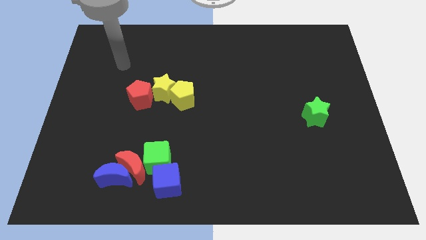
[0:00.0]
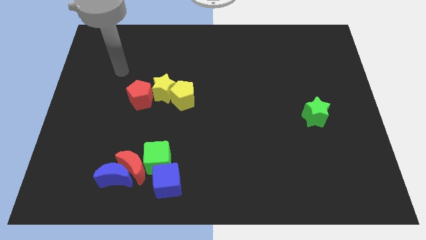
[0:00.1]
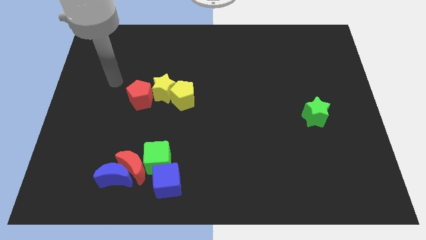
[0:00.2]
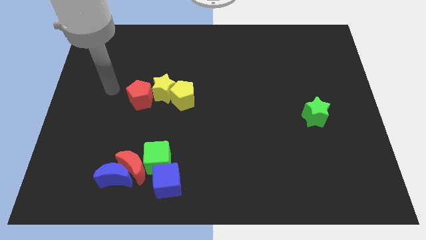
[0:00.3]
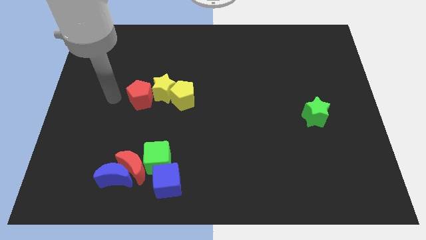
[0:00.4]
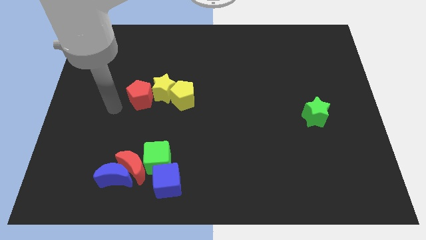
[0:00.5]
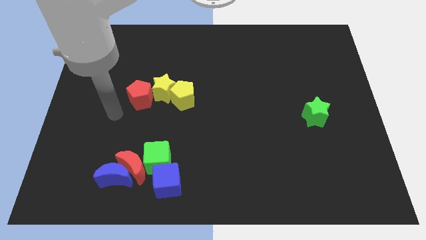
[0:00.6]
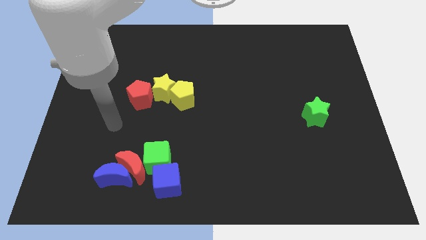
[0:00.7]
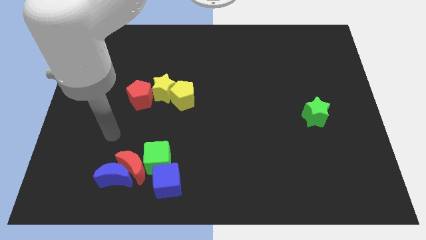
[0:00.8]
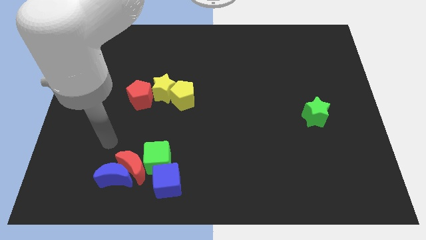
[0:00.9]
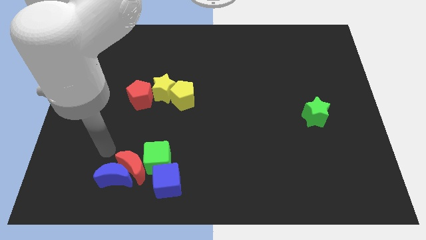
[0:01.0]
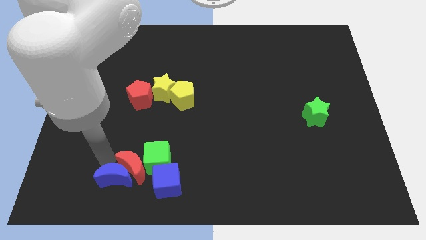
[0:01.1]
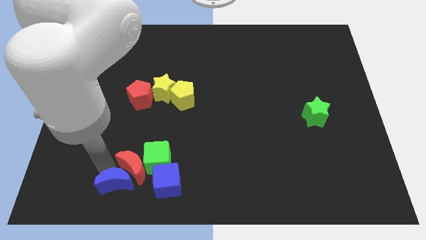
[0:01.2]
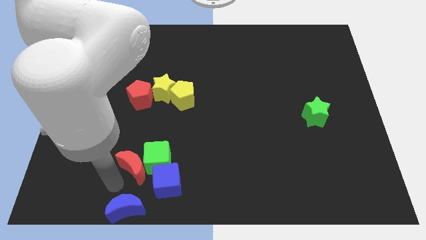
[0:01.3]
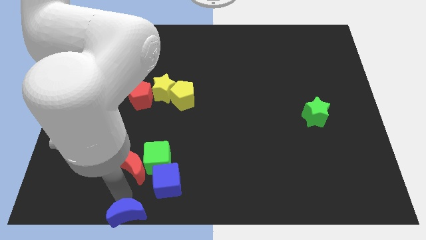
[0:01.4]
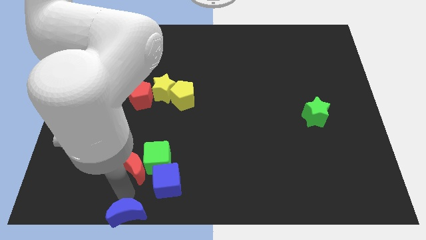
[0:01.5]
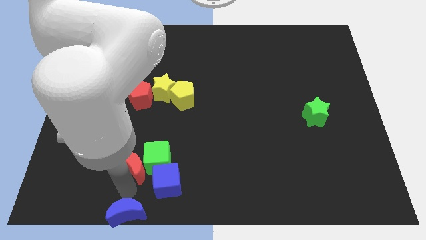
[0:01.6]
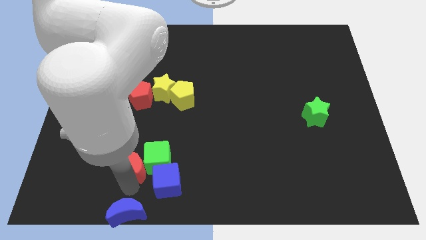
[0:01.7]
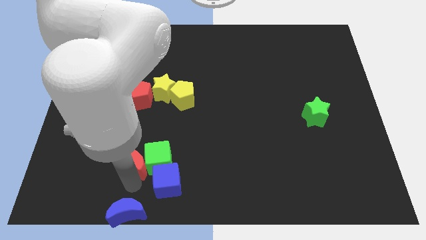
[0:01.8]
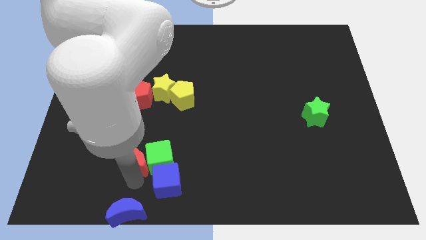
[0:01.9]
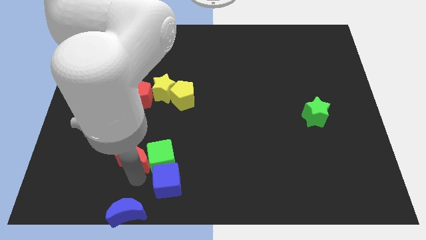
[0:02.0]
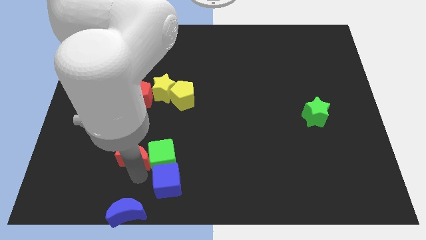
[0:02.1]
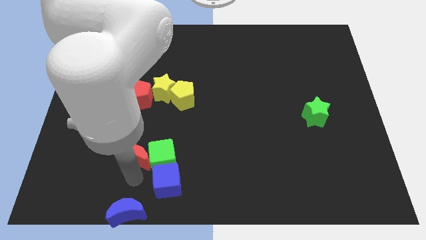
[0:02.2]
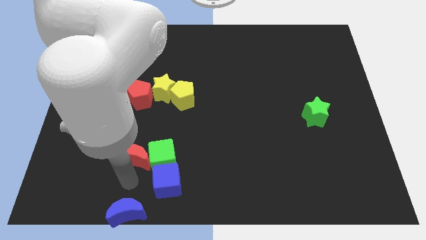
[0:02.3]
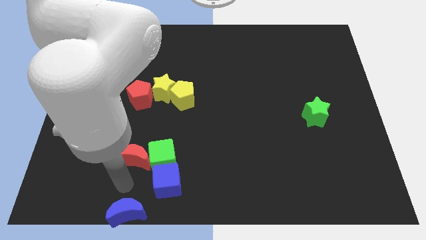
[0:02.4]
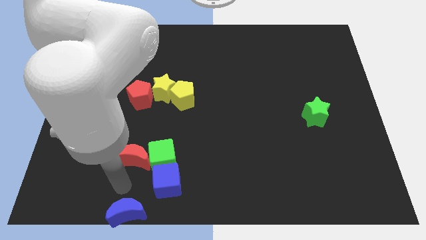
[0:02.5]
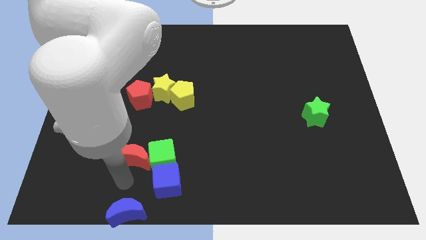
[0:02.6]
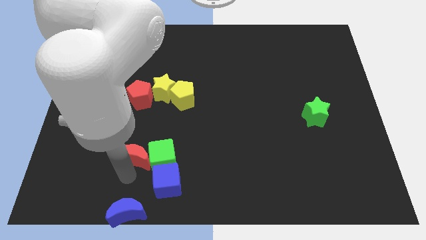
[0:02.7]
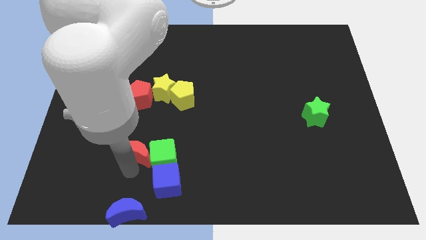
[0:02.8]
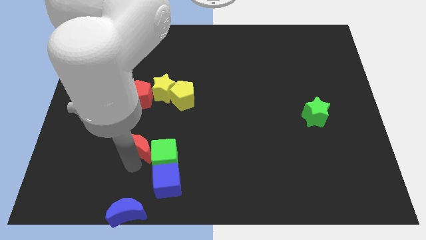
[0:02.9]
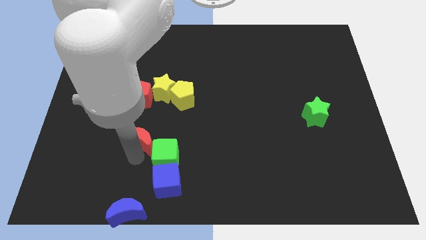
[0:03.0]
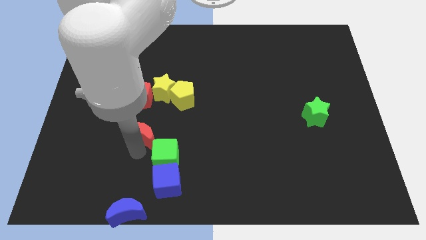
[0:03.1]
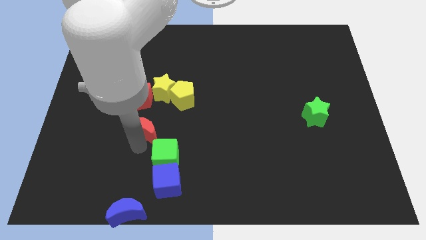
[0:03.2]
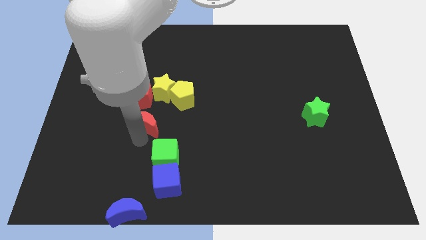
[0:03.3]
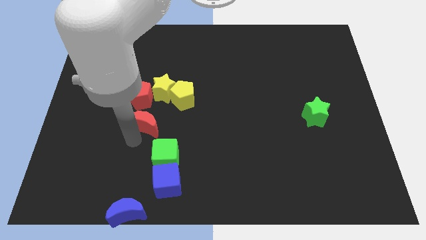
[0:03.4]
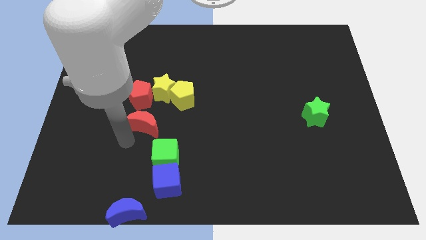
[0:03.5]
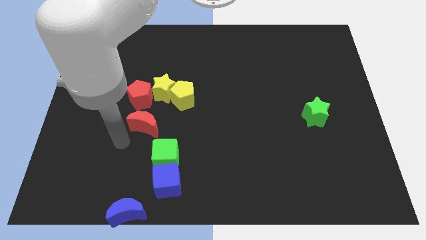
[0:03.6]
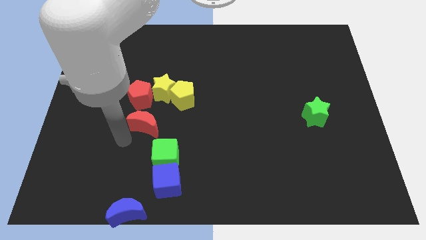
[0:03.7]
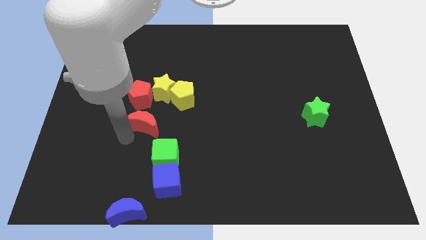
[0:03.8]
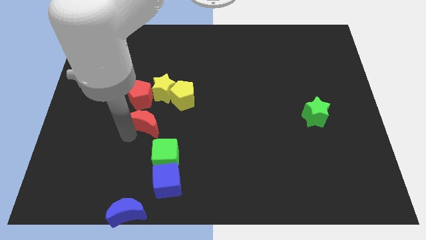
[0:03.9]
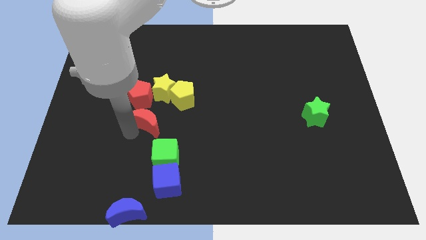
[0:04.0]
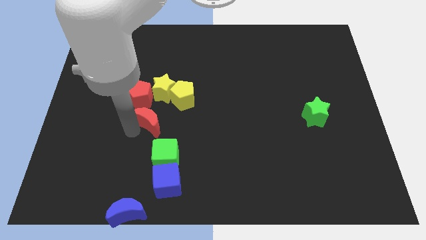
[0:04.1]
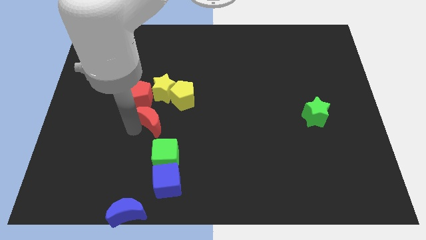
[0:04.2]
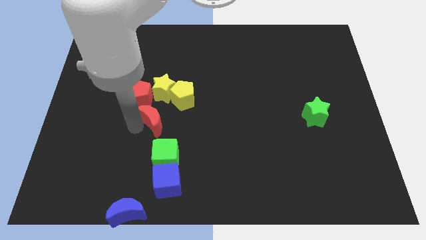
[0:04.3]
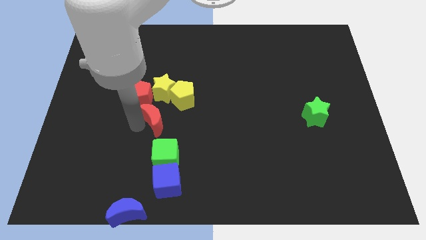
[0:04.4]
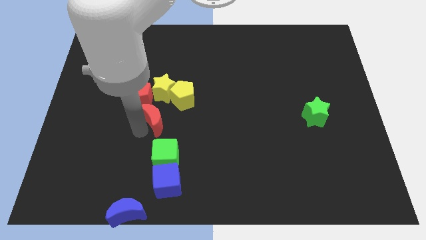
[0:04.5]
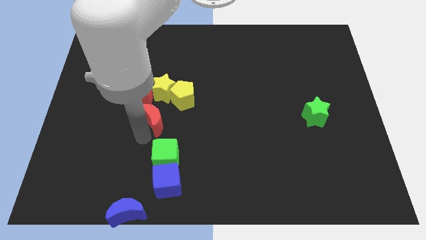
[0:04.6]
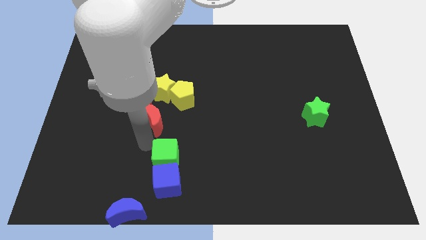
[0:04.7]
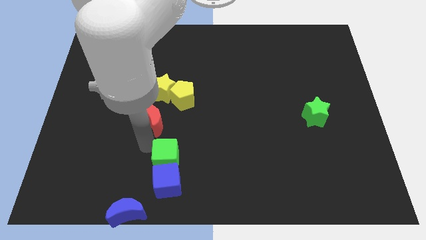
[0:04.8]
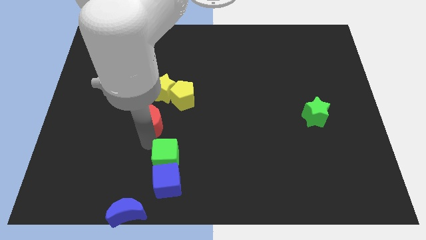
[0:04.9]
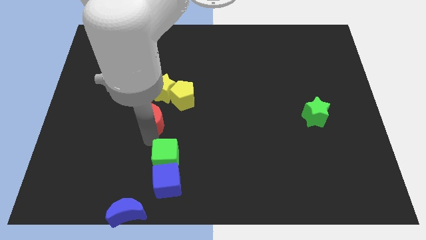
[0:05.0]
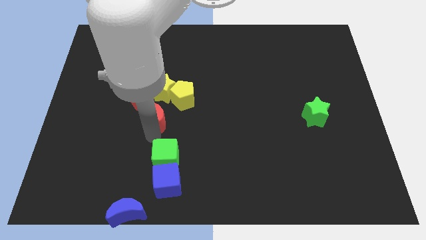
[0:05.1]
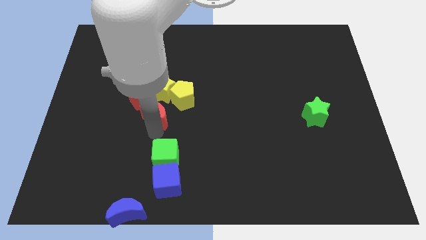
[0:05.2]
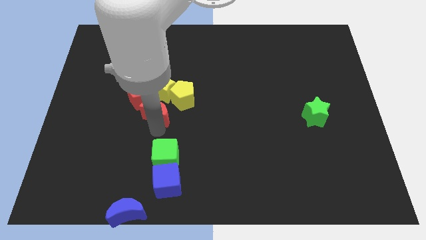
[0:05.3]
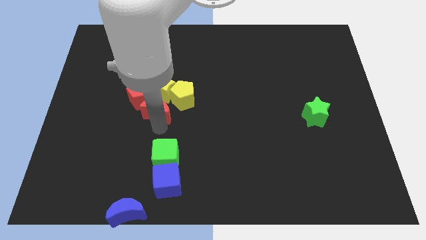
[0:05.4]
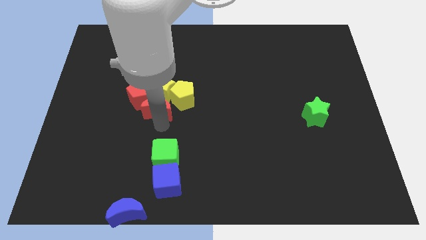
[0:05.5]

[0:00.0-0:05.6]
move the red moon to the yellow star

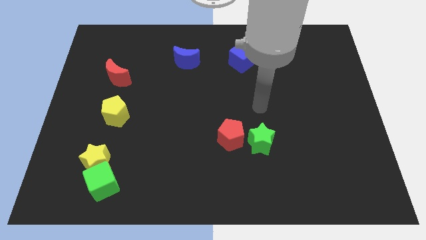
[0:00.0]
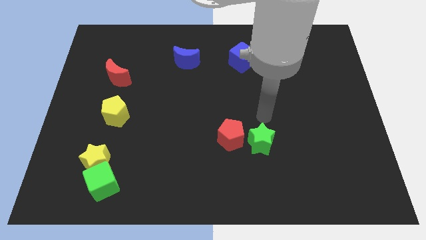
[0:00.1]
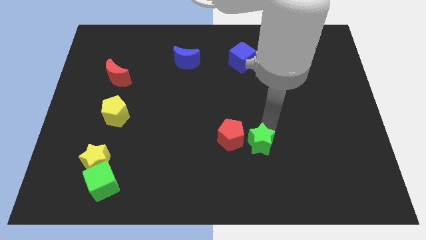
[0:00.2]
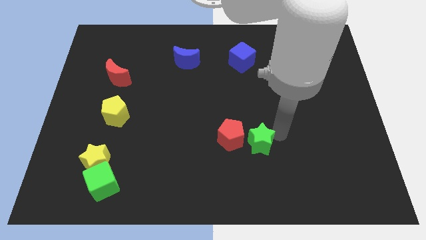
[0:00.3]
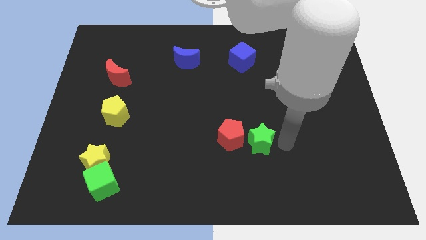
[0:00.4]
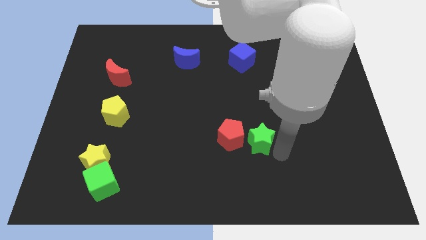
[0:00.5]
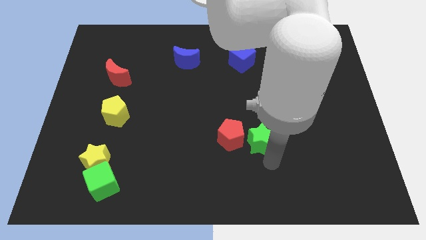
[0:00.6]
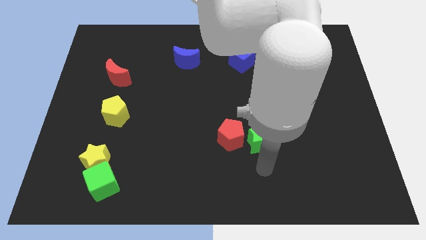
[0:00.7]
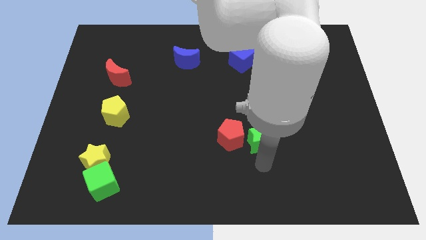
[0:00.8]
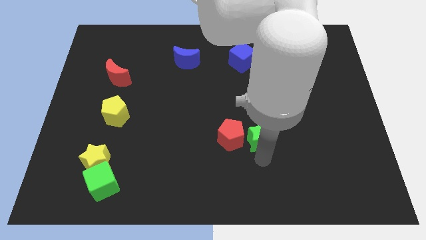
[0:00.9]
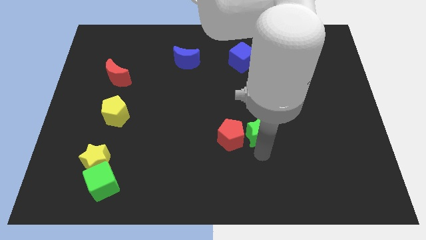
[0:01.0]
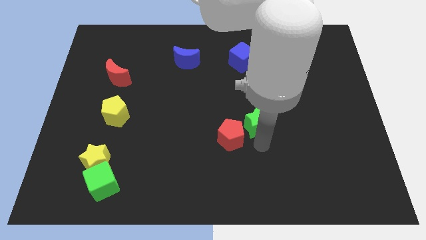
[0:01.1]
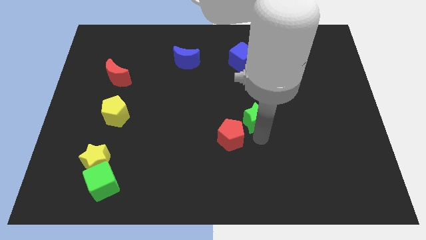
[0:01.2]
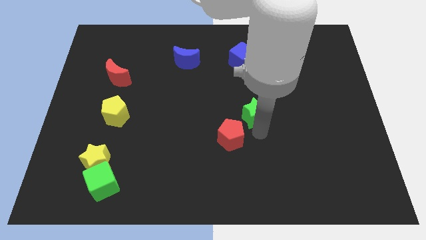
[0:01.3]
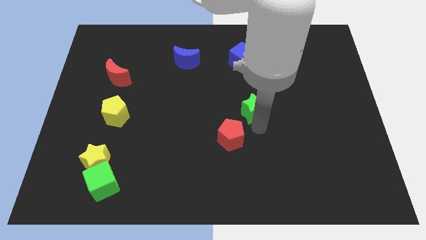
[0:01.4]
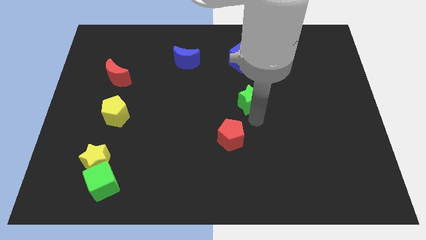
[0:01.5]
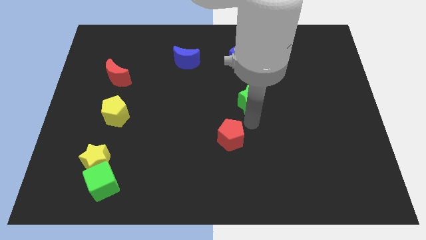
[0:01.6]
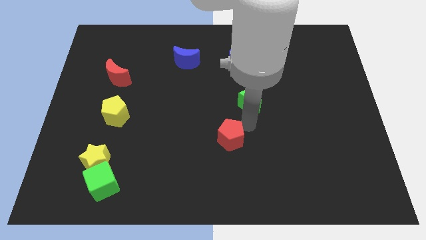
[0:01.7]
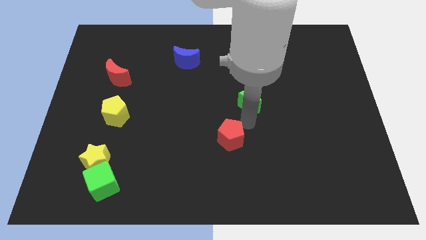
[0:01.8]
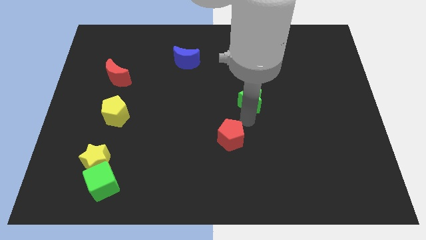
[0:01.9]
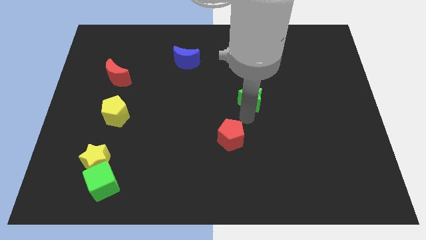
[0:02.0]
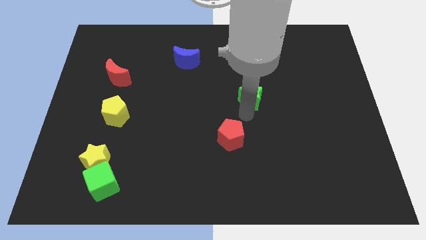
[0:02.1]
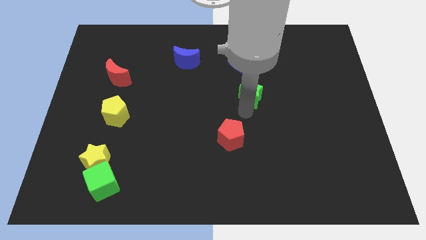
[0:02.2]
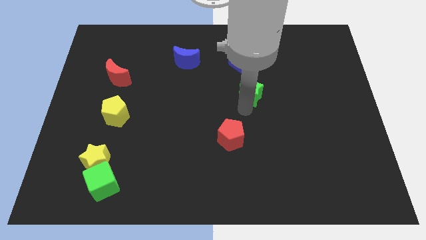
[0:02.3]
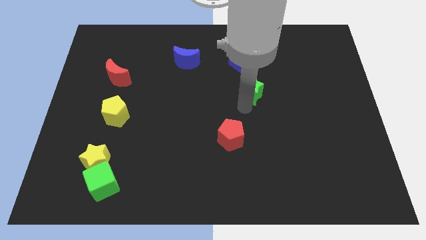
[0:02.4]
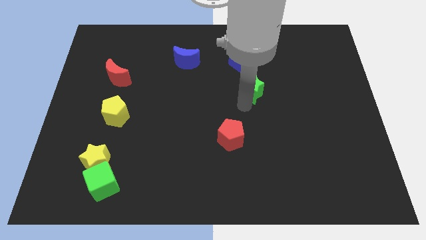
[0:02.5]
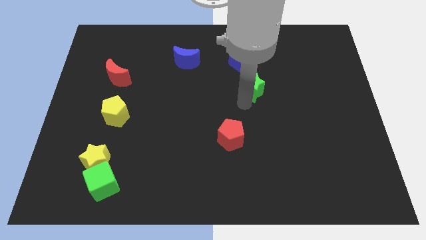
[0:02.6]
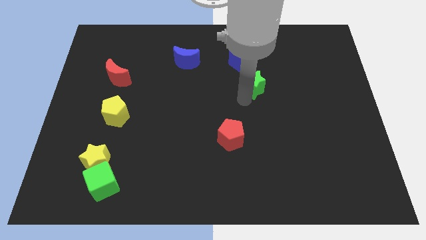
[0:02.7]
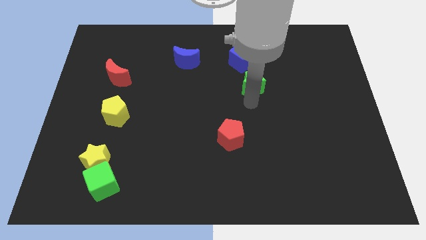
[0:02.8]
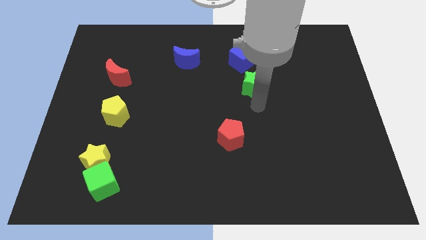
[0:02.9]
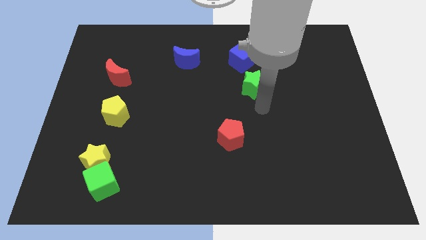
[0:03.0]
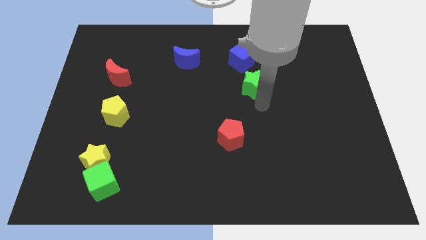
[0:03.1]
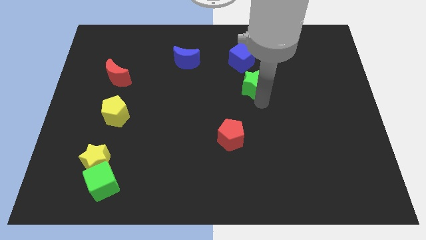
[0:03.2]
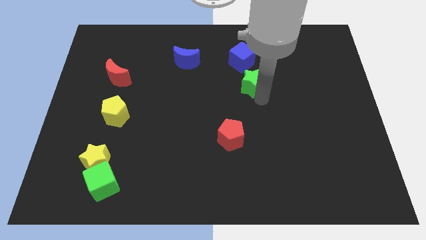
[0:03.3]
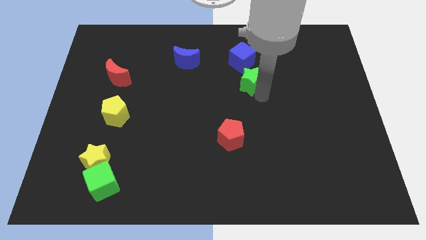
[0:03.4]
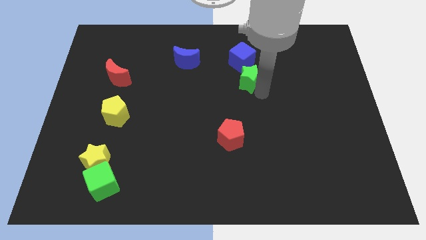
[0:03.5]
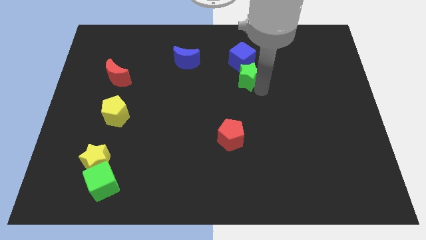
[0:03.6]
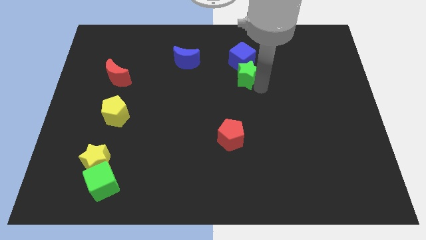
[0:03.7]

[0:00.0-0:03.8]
push the green star next to the blue cube
